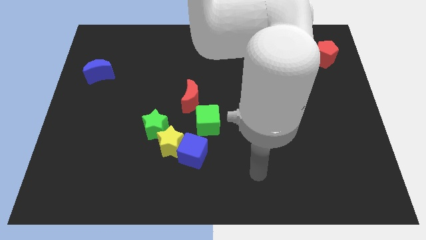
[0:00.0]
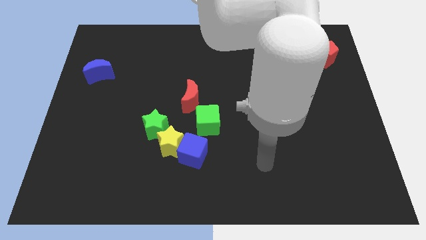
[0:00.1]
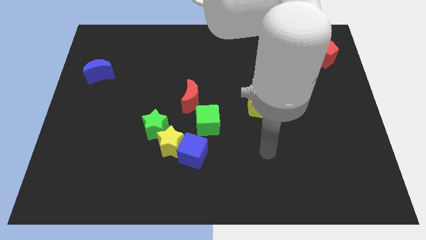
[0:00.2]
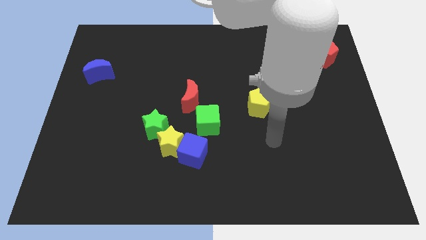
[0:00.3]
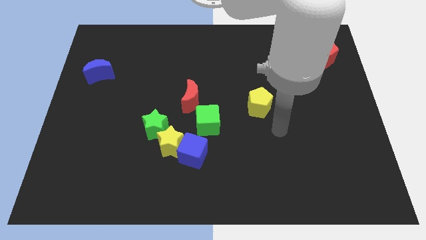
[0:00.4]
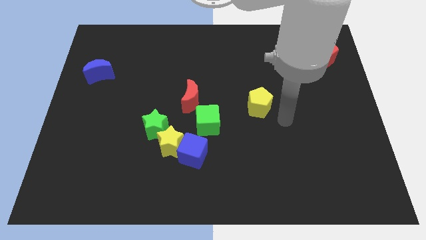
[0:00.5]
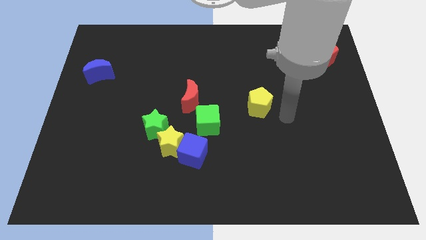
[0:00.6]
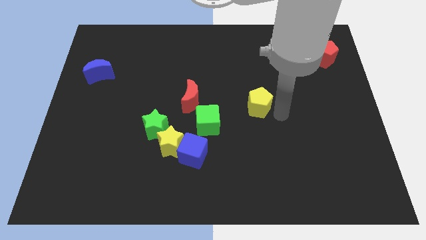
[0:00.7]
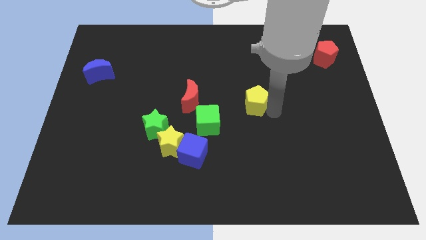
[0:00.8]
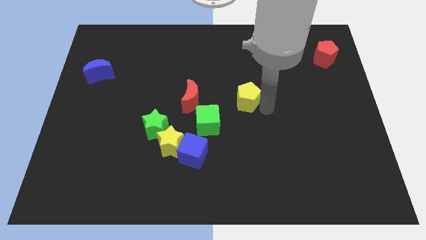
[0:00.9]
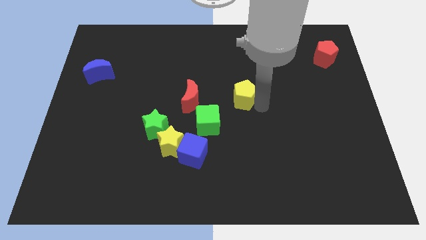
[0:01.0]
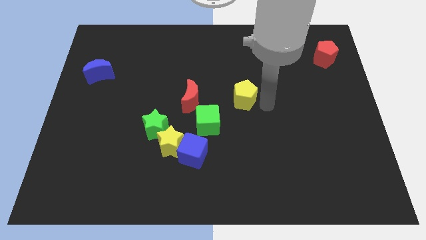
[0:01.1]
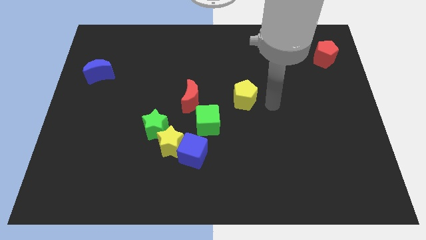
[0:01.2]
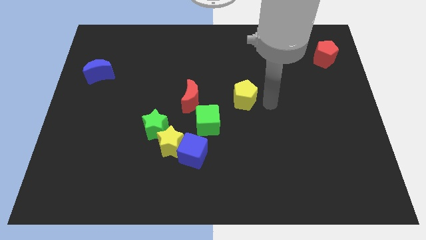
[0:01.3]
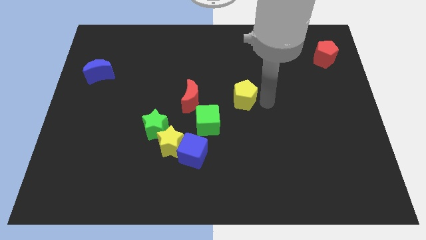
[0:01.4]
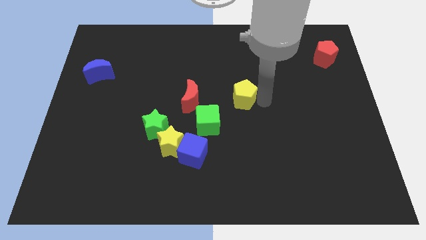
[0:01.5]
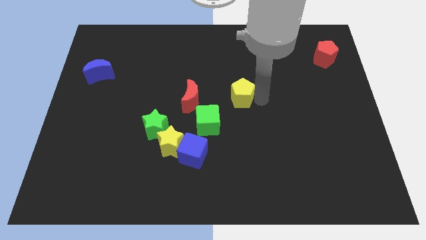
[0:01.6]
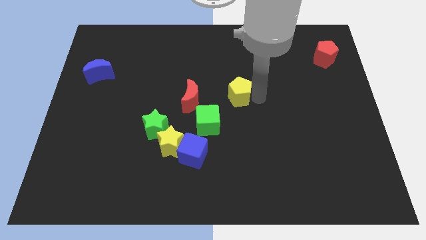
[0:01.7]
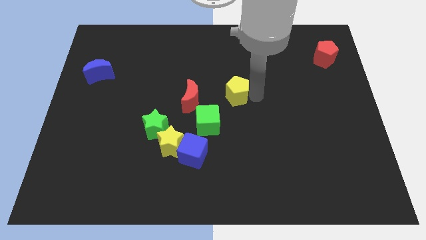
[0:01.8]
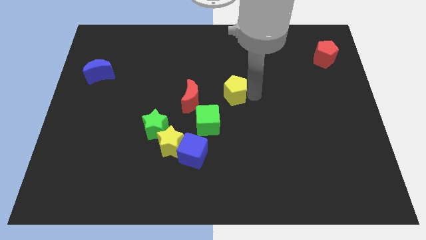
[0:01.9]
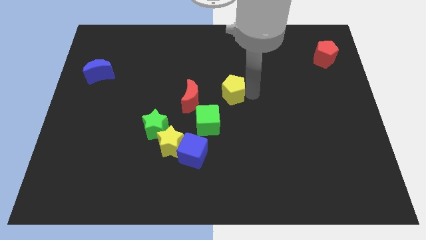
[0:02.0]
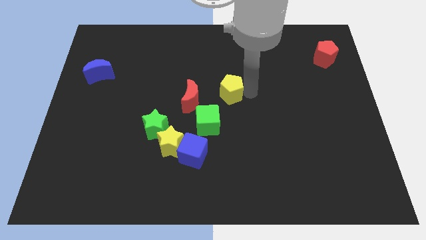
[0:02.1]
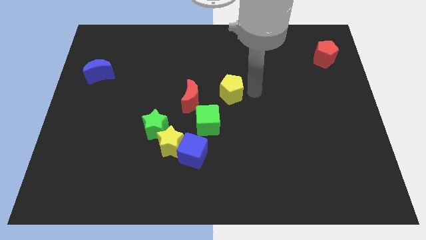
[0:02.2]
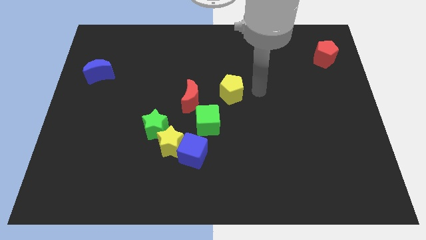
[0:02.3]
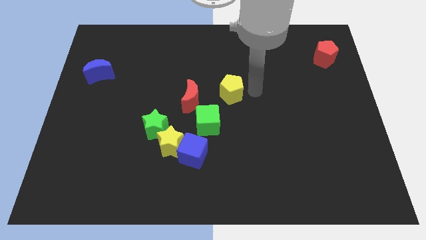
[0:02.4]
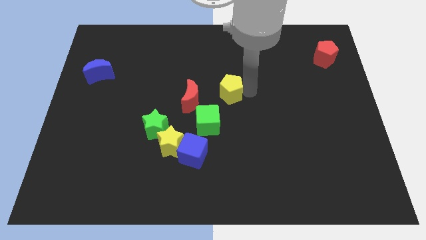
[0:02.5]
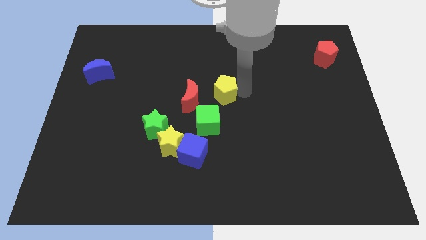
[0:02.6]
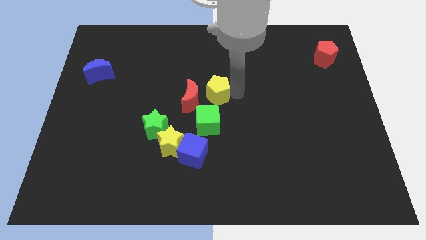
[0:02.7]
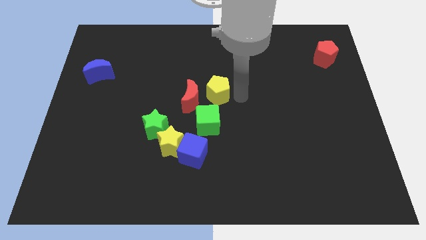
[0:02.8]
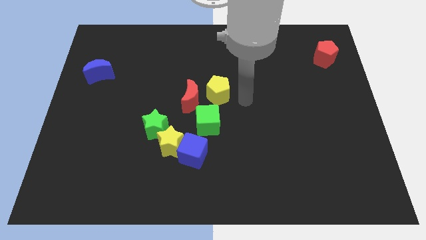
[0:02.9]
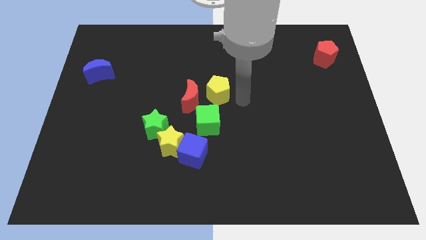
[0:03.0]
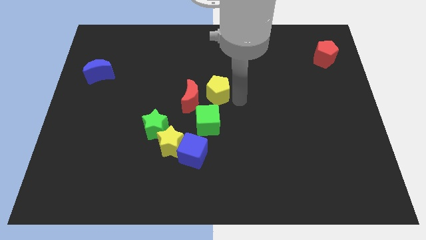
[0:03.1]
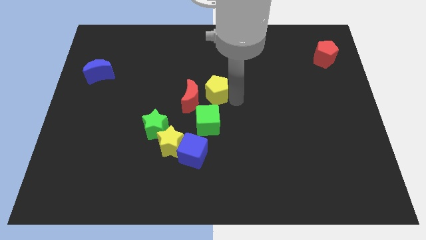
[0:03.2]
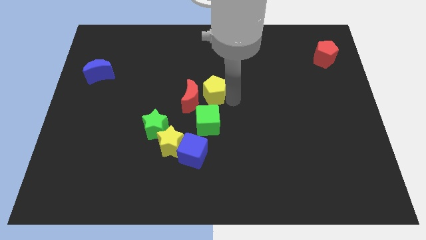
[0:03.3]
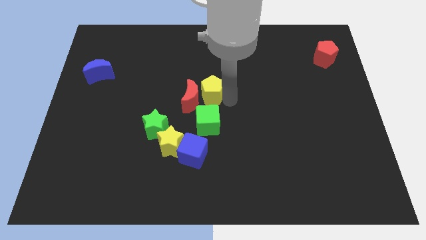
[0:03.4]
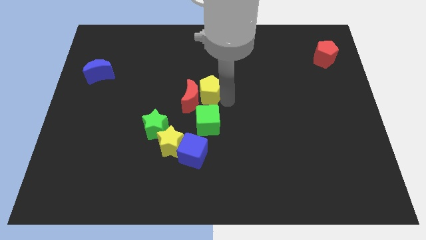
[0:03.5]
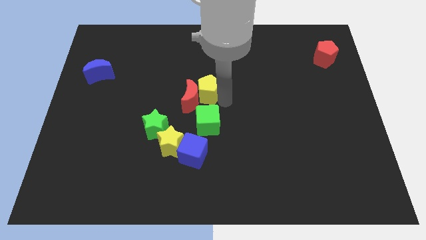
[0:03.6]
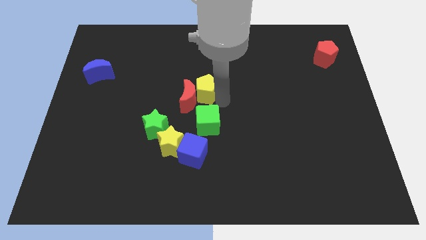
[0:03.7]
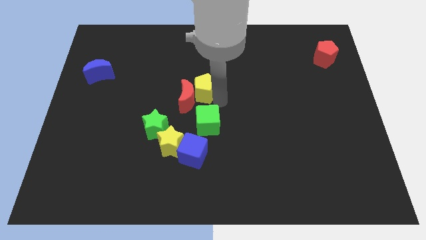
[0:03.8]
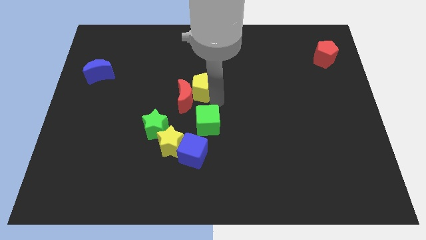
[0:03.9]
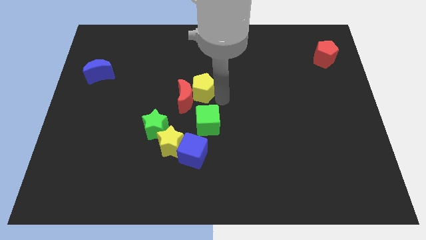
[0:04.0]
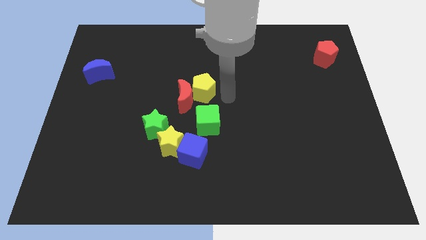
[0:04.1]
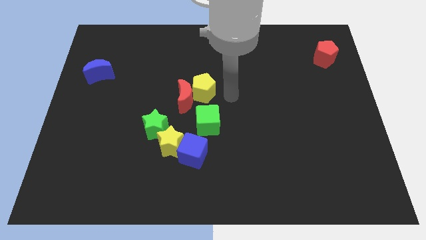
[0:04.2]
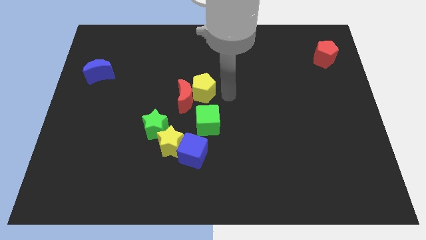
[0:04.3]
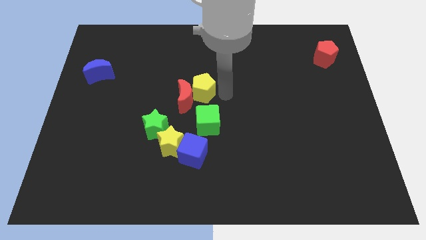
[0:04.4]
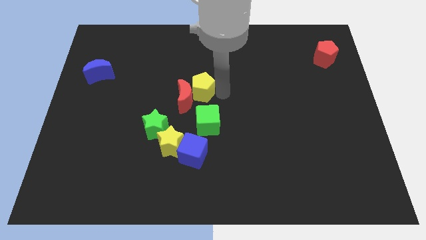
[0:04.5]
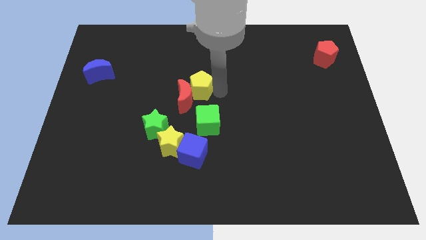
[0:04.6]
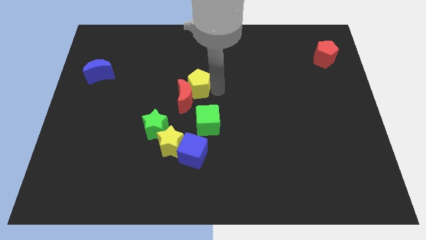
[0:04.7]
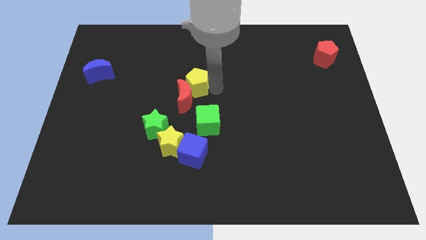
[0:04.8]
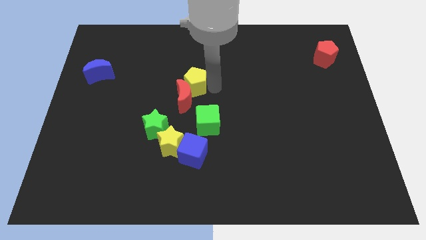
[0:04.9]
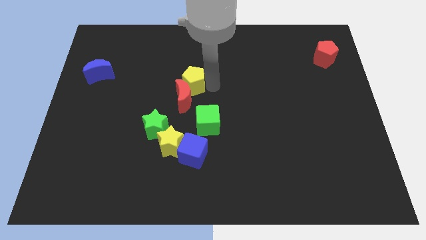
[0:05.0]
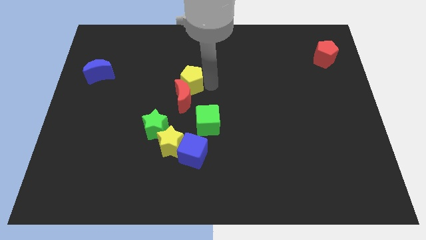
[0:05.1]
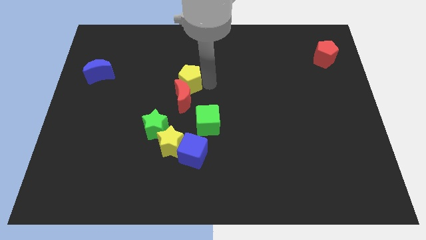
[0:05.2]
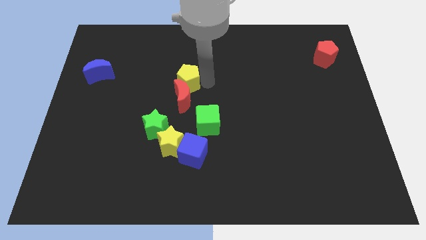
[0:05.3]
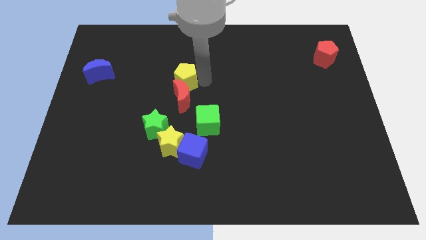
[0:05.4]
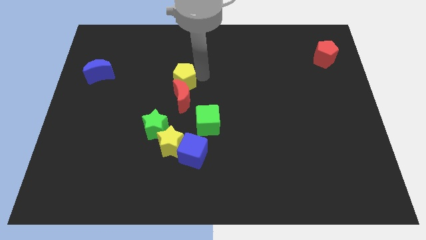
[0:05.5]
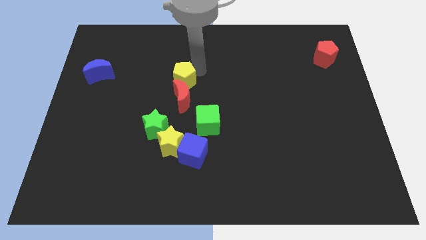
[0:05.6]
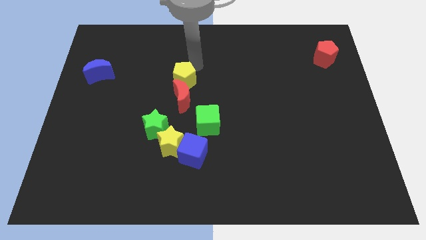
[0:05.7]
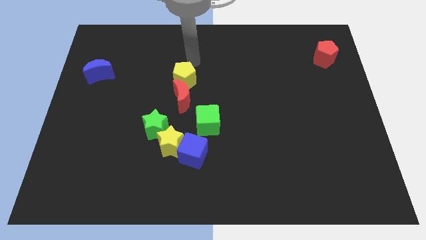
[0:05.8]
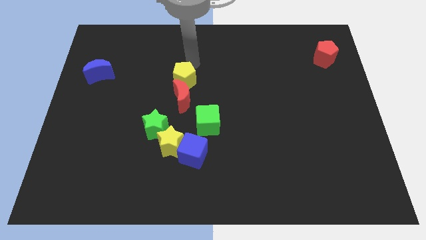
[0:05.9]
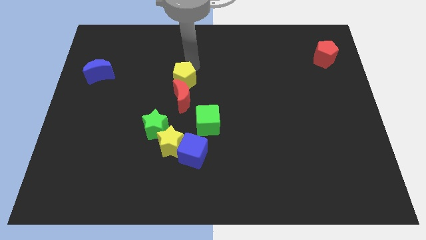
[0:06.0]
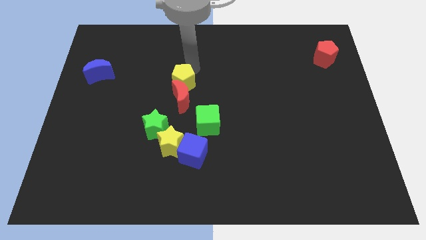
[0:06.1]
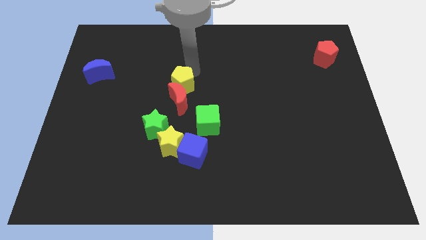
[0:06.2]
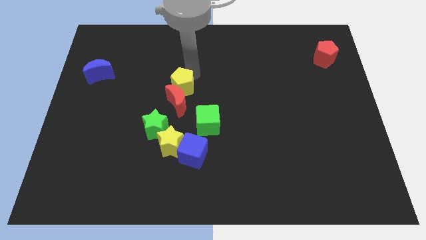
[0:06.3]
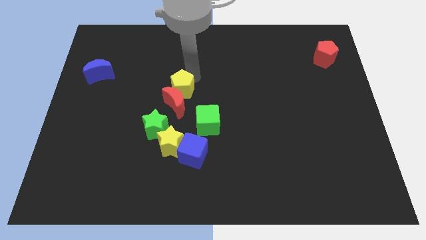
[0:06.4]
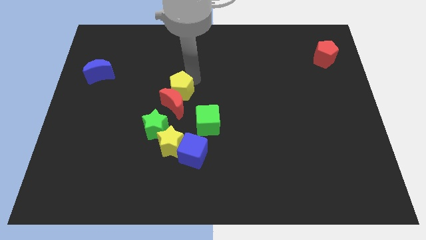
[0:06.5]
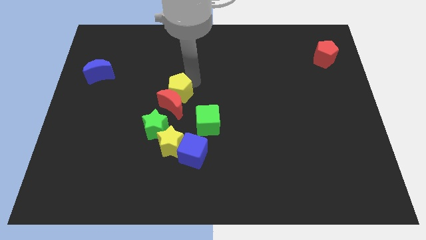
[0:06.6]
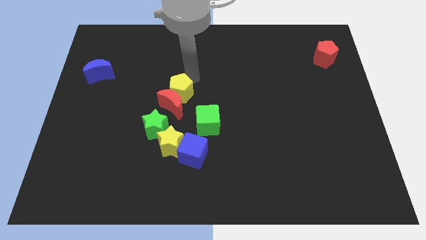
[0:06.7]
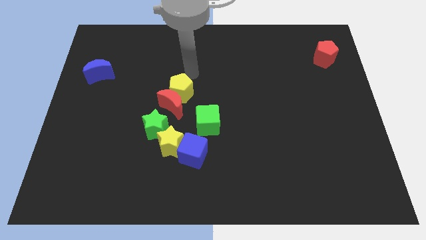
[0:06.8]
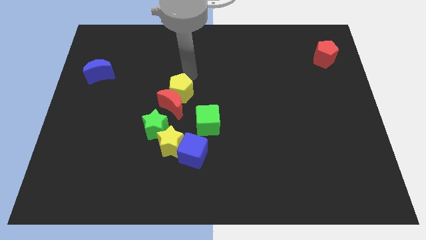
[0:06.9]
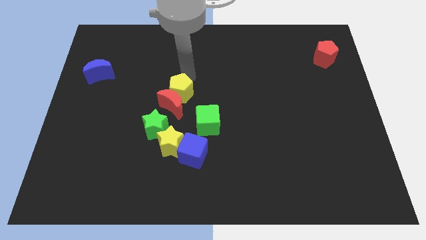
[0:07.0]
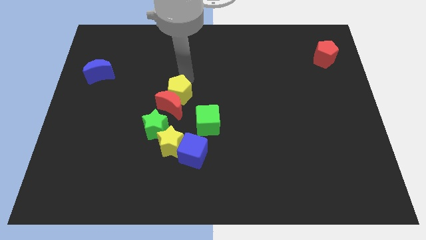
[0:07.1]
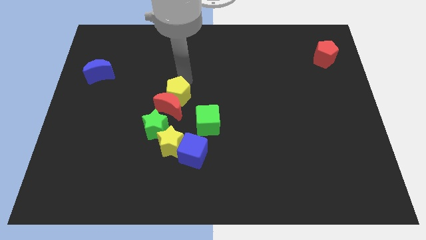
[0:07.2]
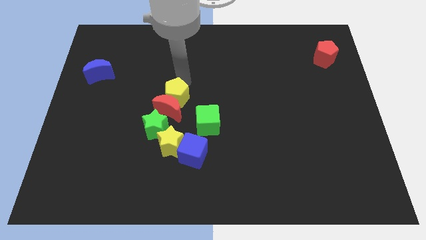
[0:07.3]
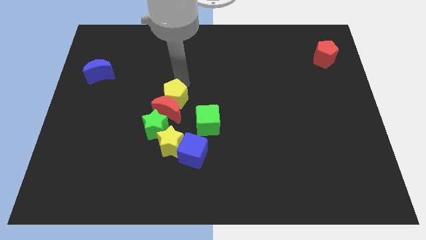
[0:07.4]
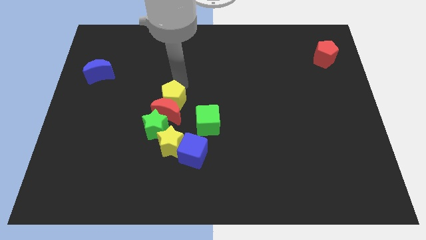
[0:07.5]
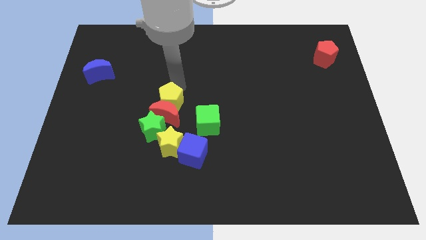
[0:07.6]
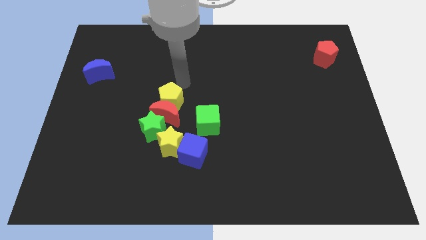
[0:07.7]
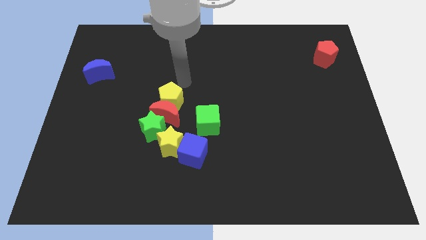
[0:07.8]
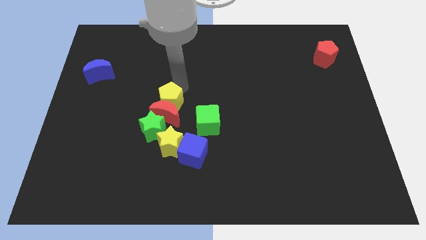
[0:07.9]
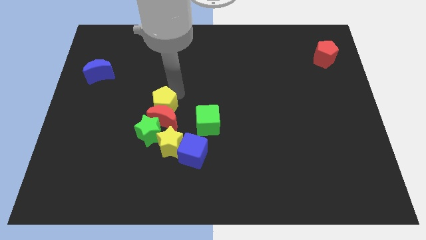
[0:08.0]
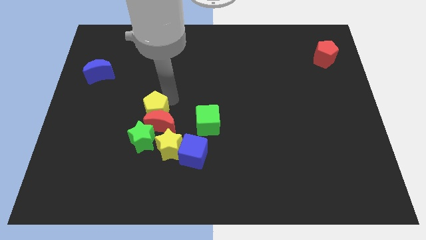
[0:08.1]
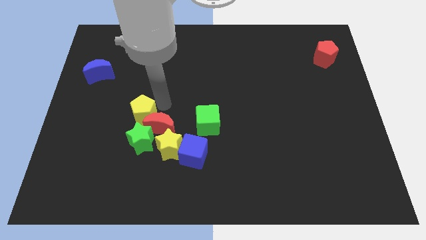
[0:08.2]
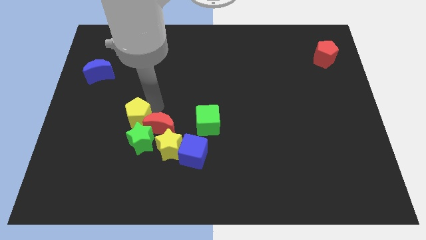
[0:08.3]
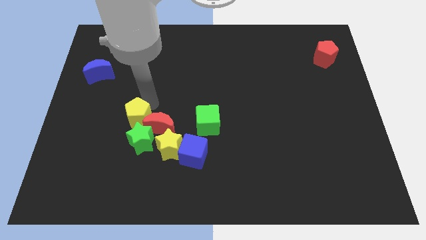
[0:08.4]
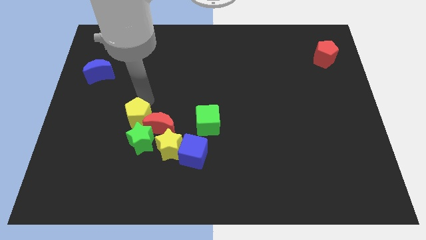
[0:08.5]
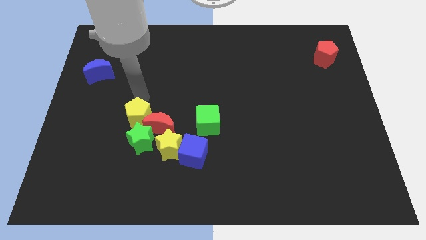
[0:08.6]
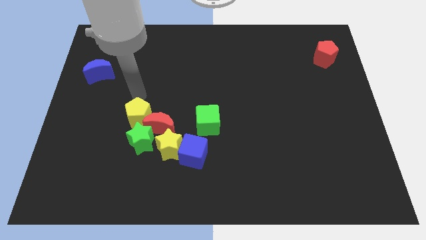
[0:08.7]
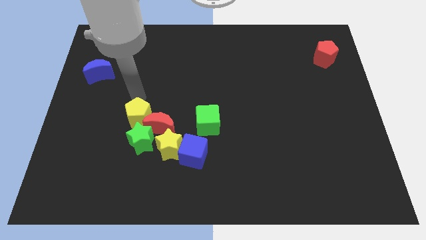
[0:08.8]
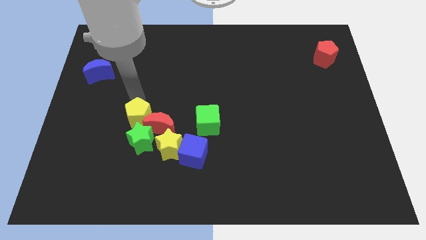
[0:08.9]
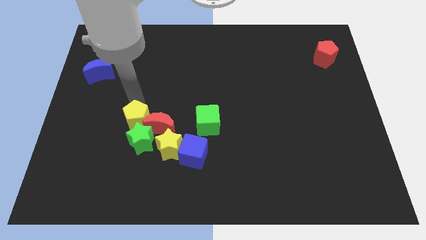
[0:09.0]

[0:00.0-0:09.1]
put the yellow pentagon towards the green star
